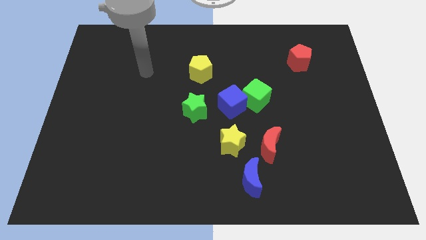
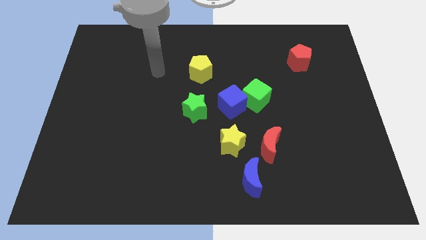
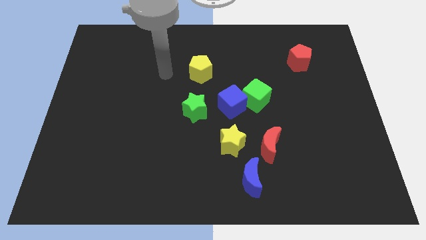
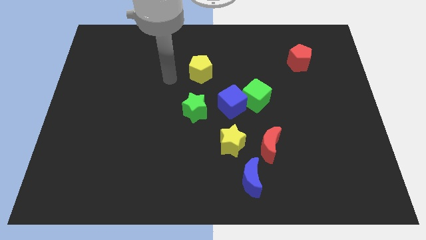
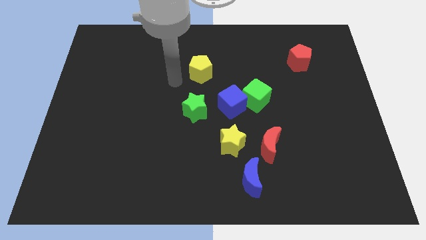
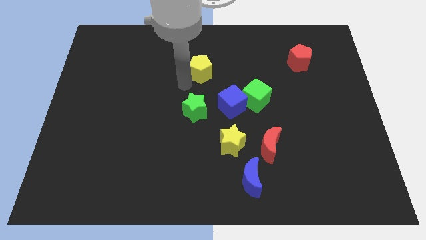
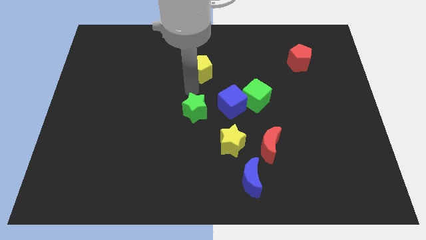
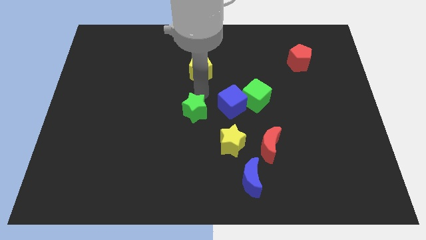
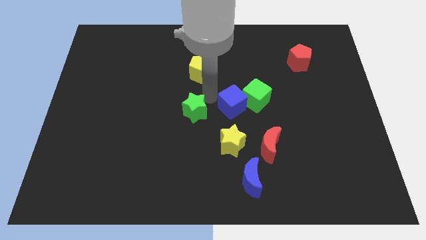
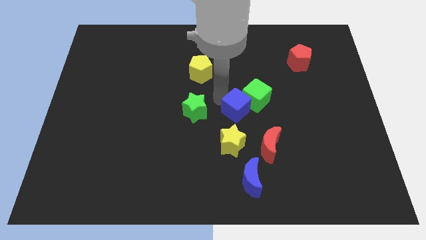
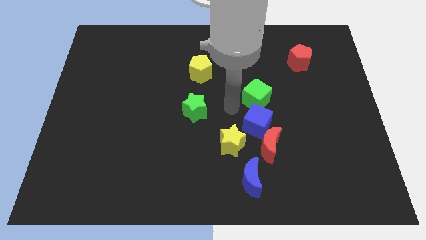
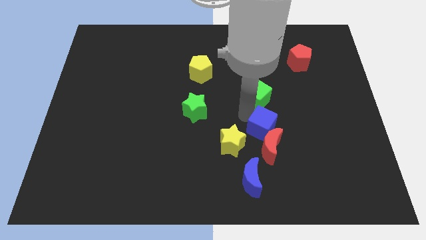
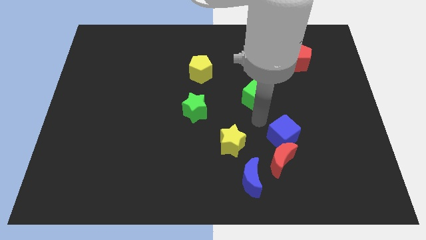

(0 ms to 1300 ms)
move the green cube away from the blue cube

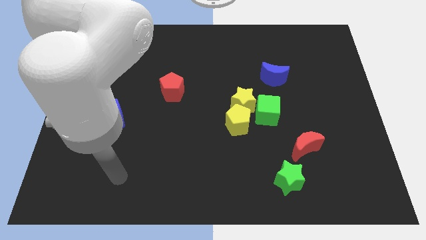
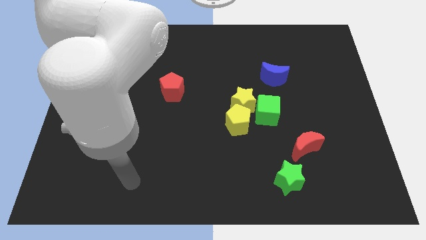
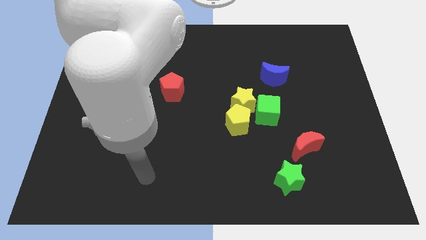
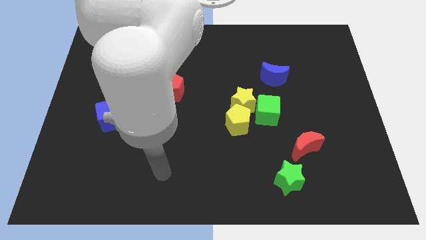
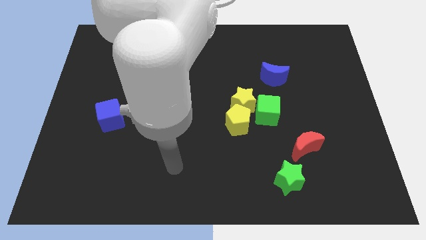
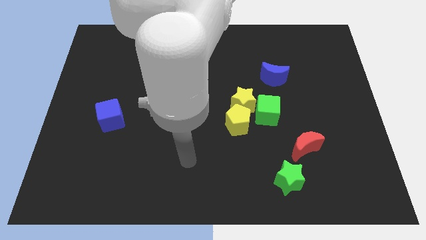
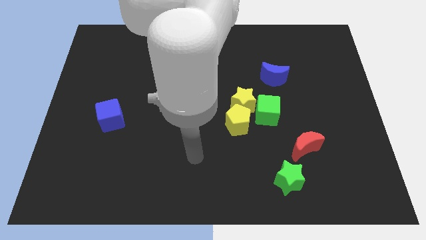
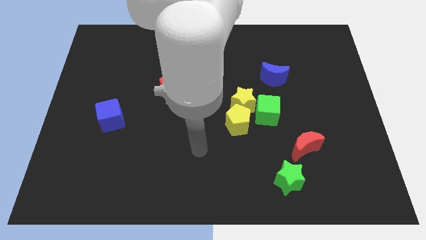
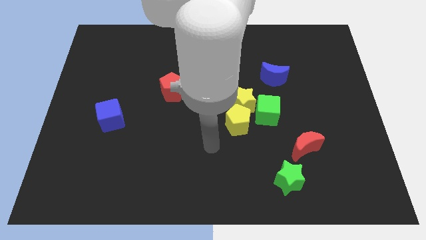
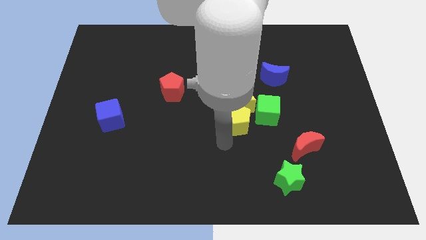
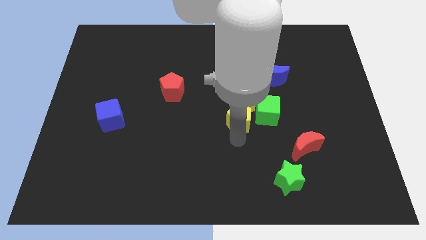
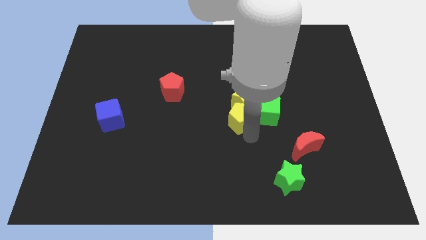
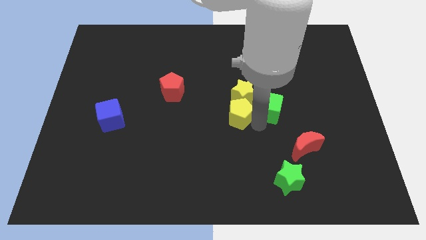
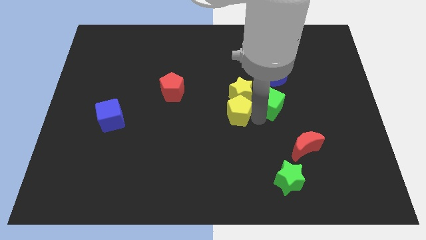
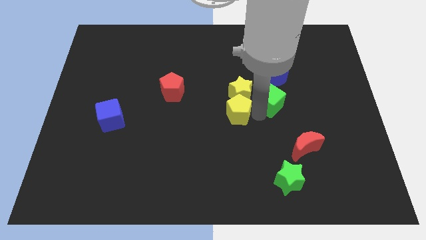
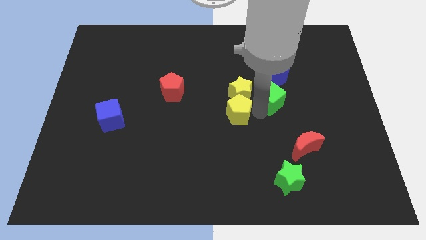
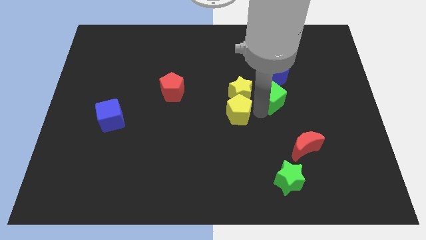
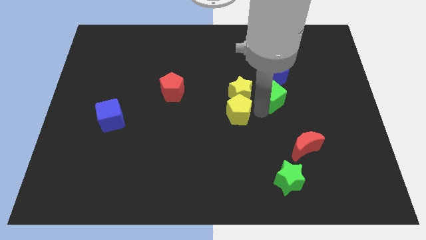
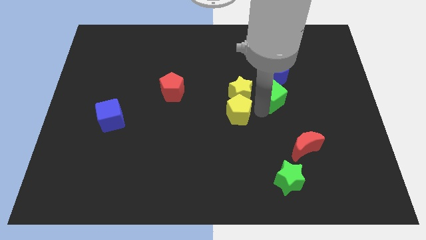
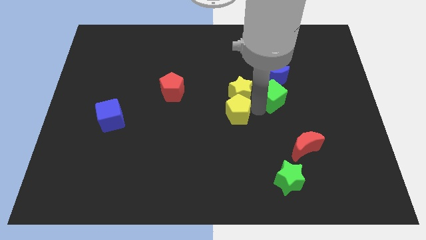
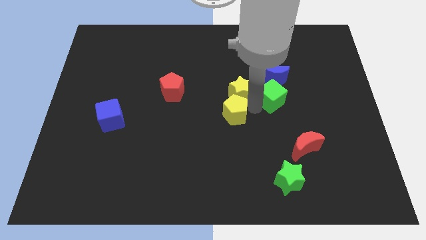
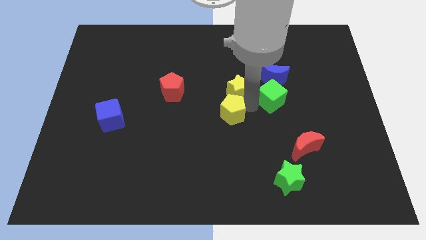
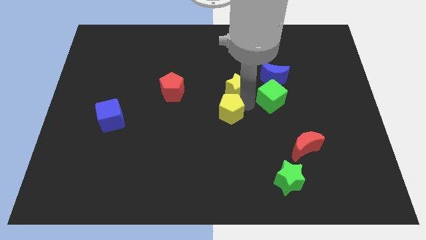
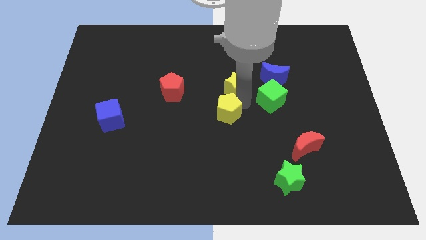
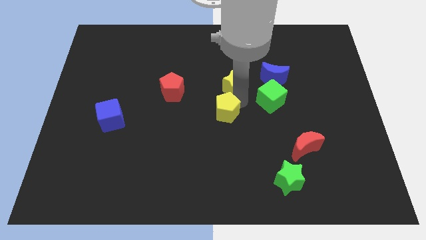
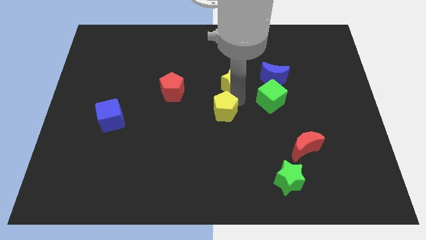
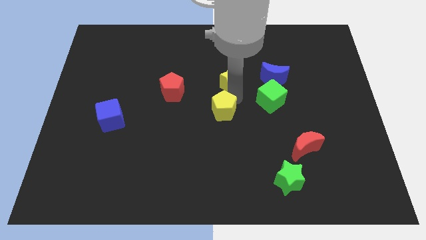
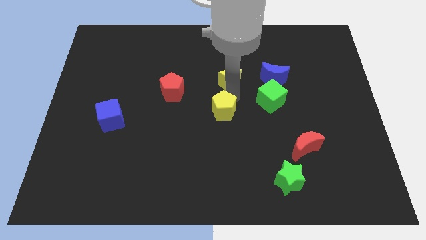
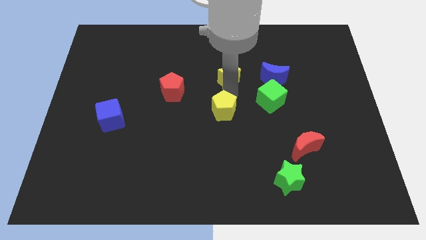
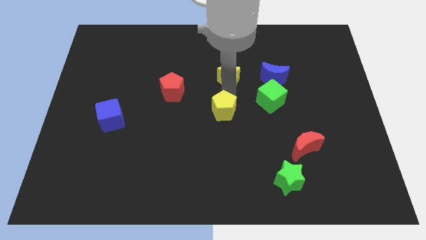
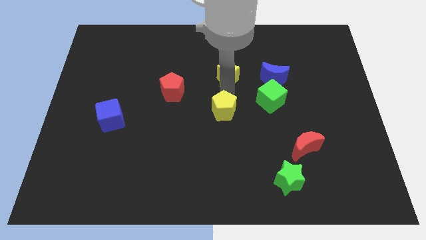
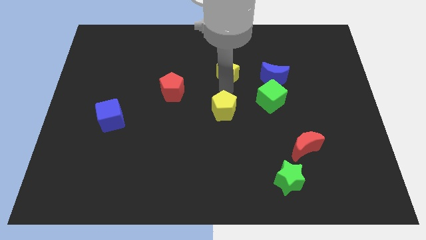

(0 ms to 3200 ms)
move the yellow star away from the yellow pentagon and green cube

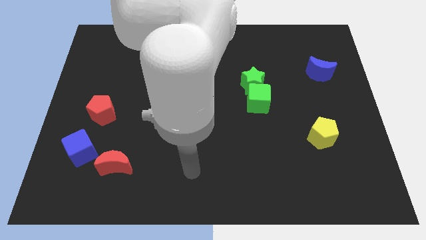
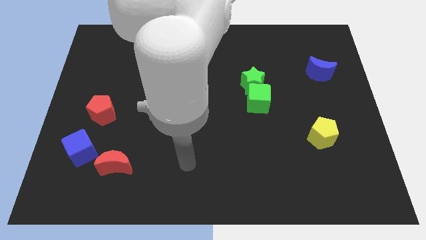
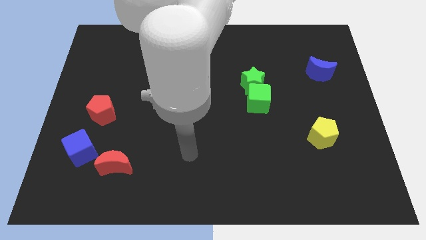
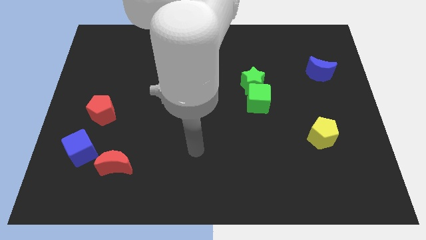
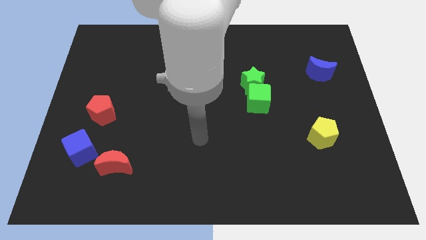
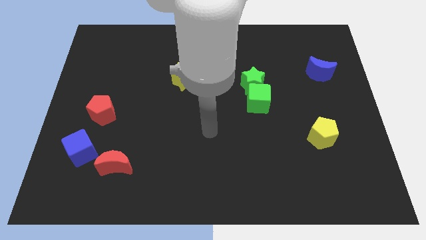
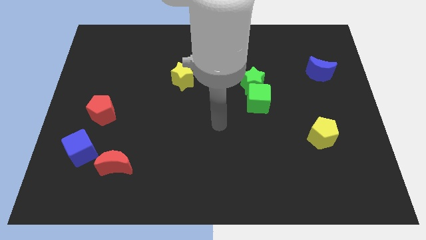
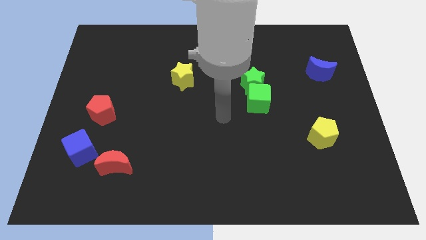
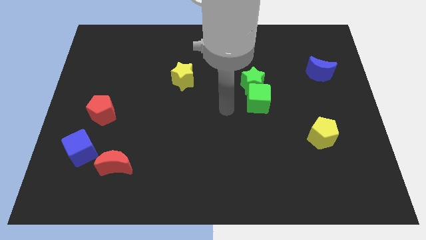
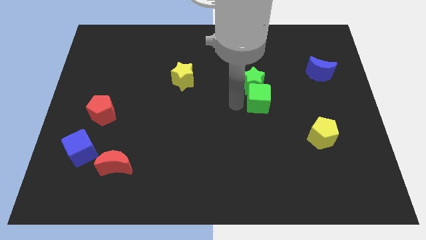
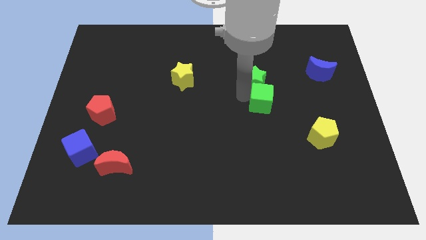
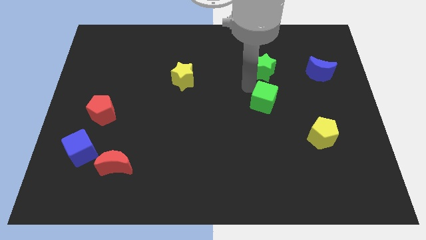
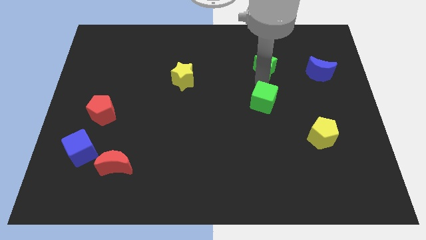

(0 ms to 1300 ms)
move the green cube away from the green star

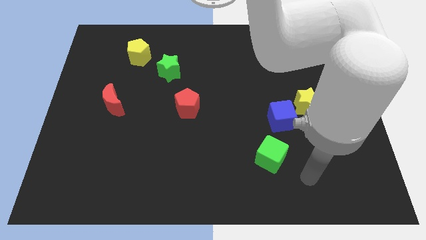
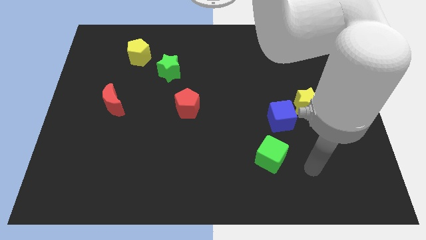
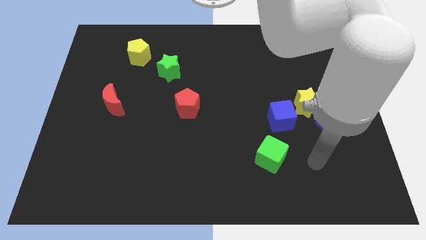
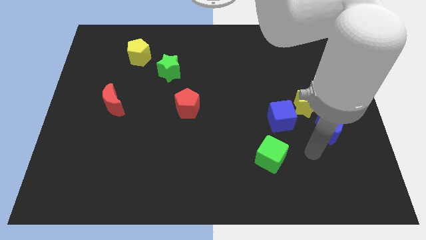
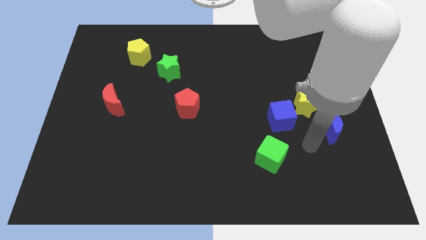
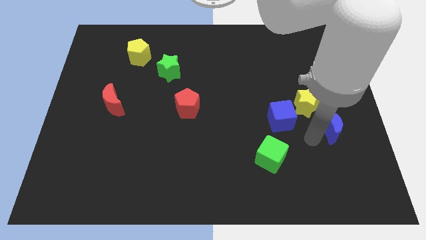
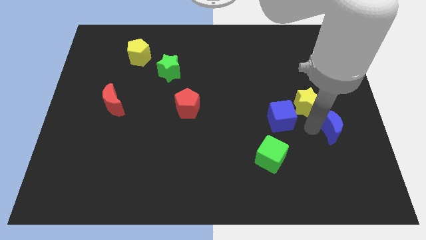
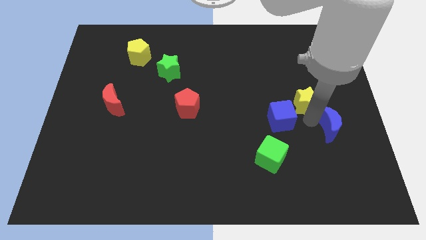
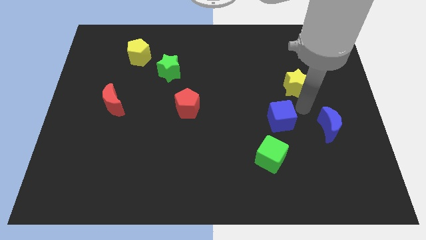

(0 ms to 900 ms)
separate the blue cube from the yellow star

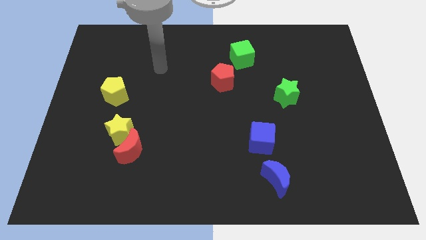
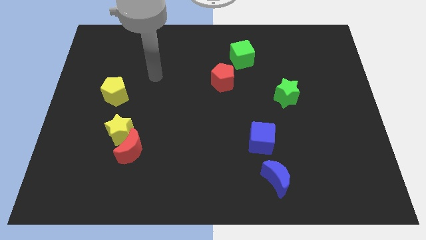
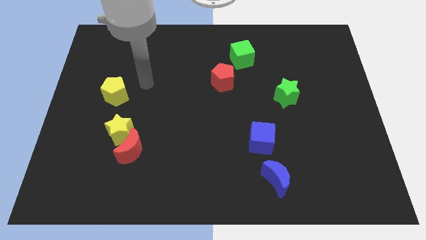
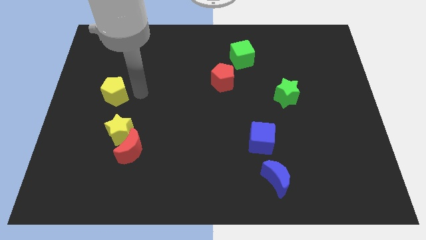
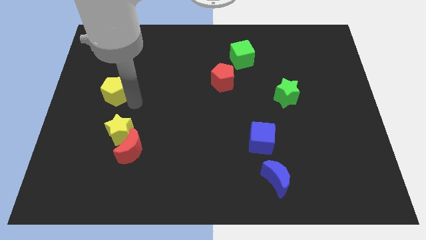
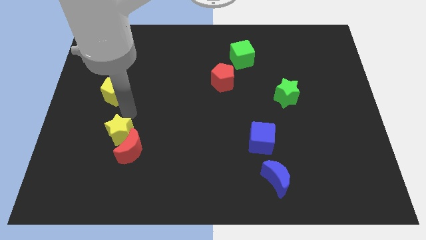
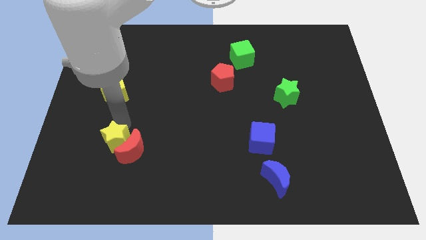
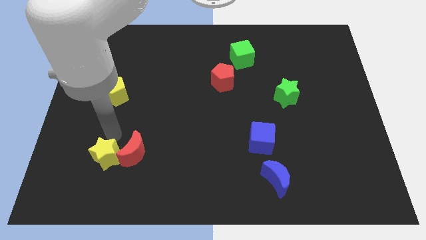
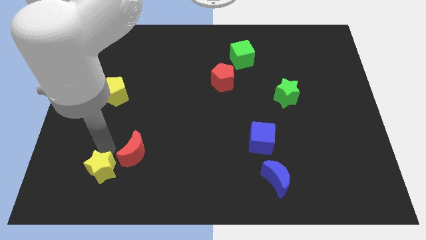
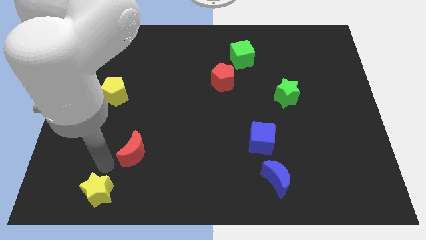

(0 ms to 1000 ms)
pull the red moon apart from the yellow star

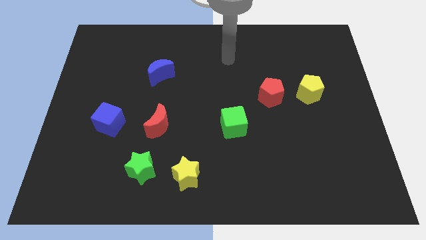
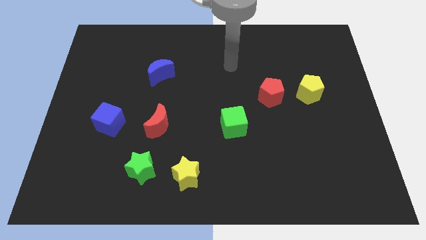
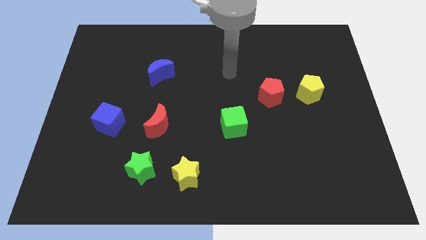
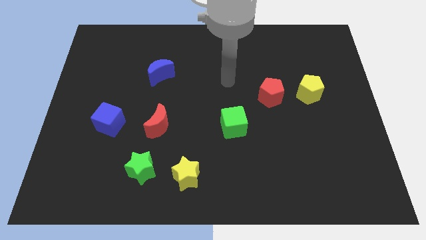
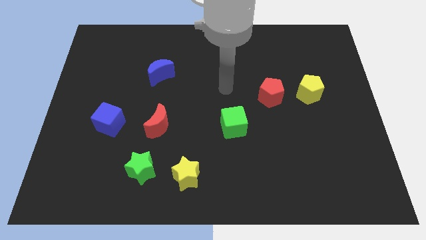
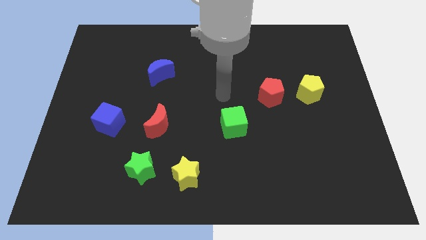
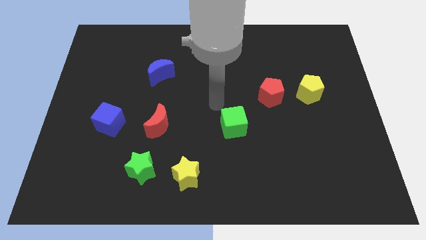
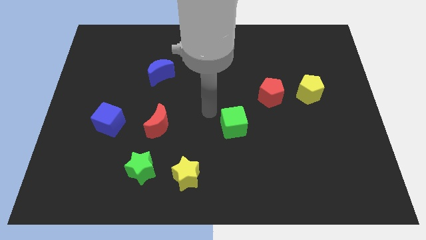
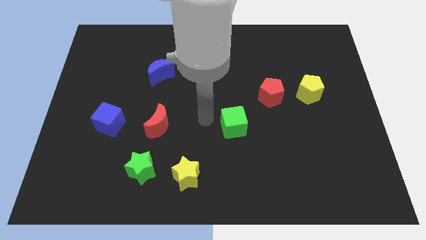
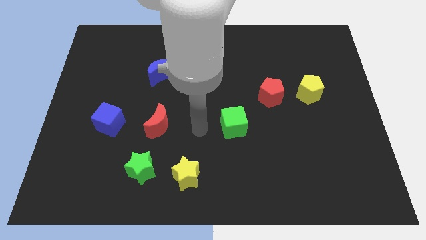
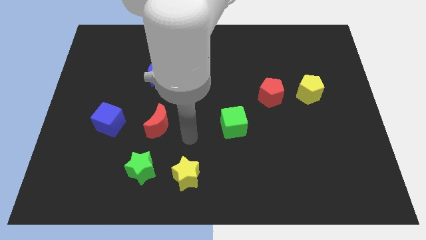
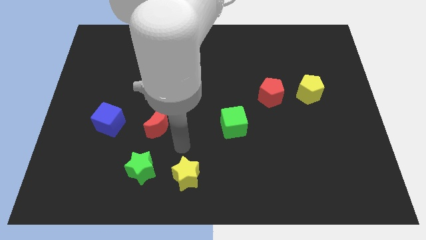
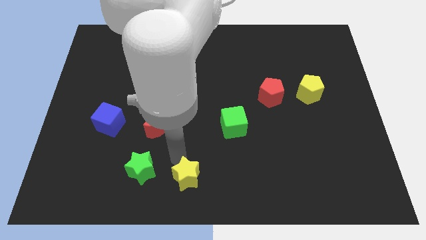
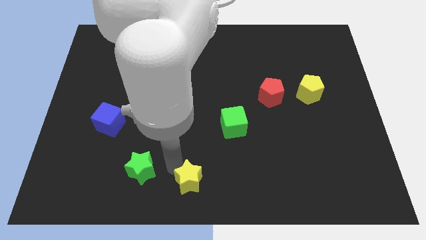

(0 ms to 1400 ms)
separate the green star from the yellow star
